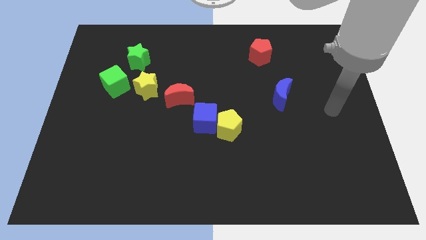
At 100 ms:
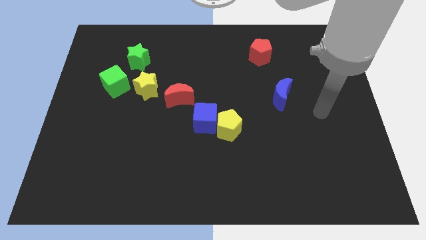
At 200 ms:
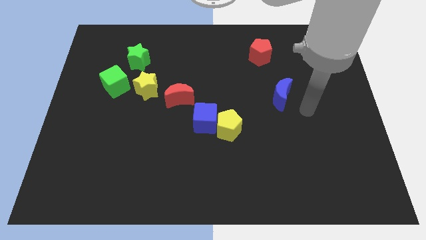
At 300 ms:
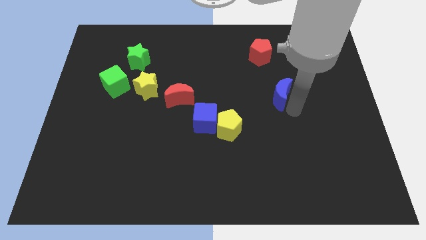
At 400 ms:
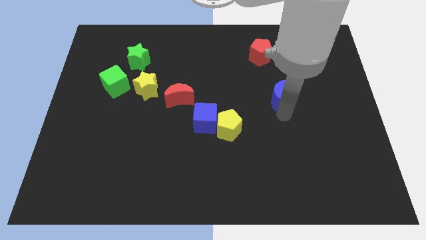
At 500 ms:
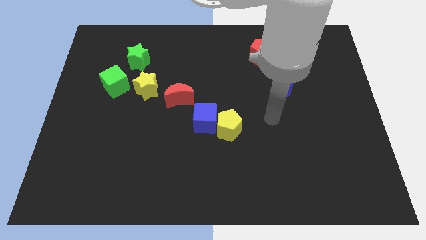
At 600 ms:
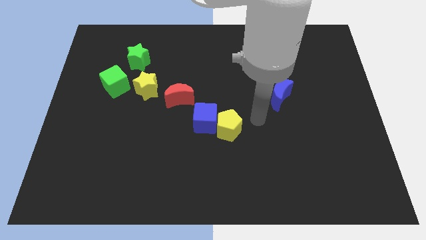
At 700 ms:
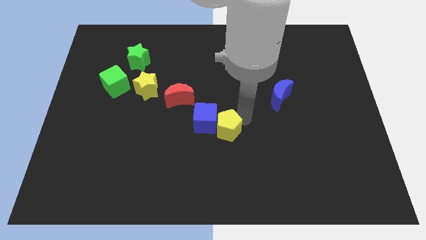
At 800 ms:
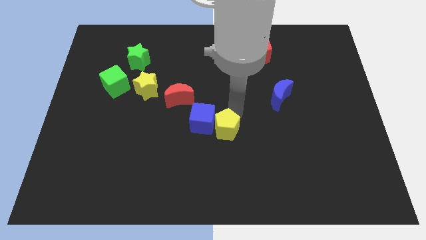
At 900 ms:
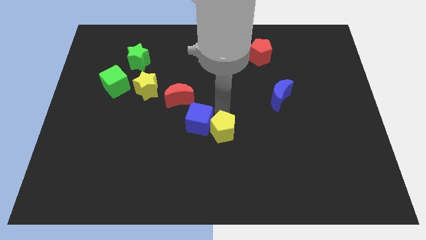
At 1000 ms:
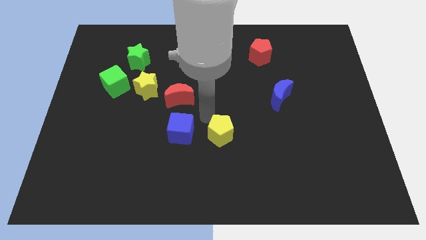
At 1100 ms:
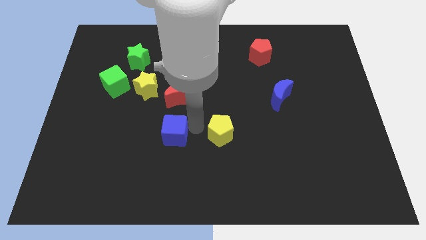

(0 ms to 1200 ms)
pull the yellow pentagon apart from the blue cube

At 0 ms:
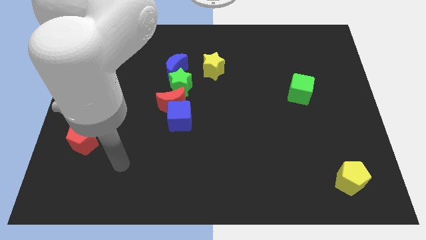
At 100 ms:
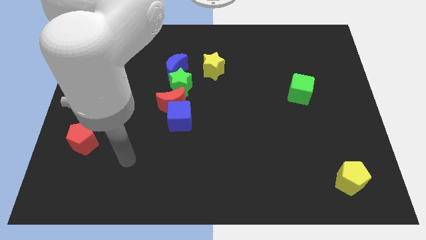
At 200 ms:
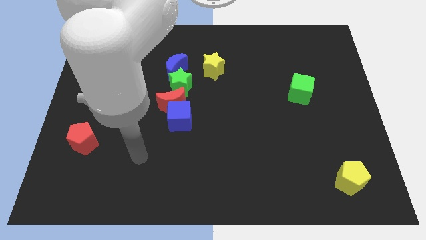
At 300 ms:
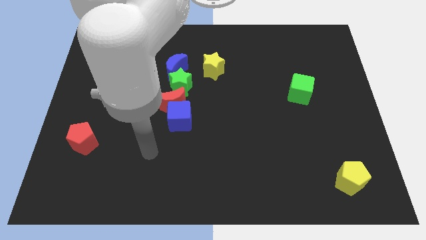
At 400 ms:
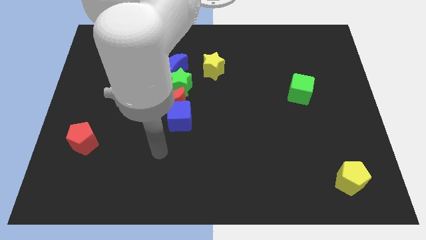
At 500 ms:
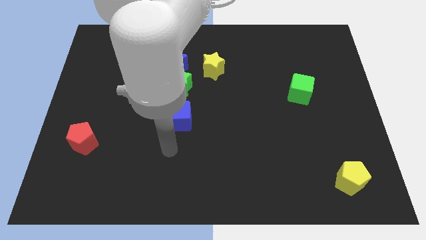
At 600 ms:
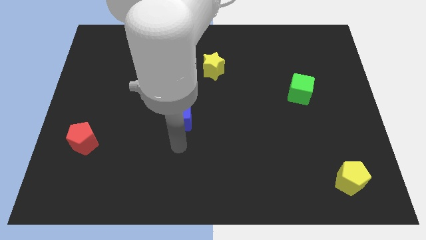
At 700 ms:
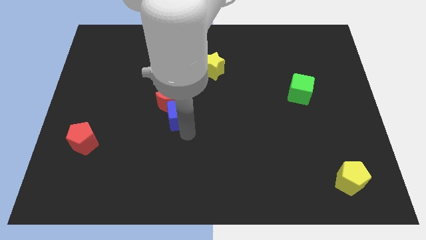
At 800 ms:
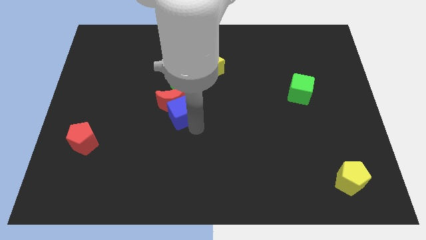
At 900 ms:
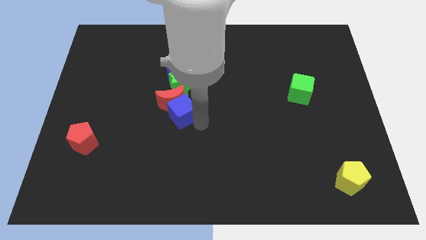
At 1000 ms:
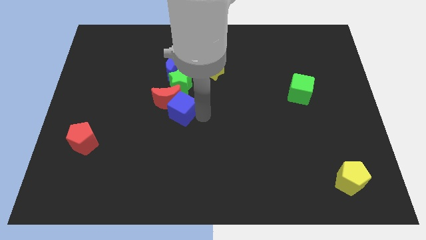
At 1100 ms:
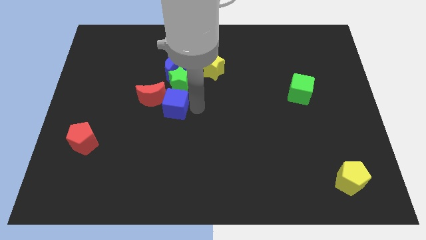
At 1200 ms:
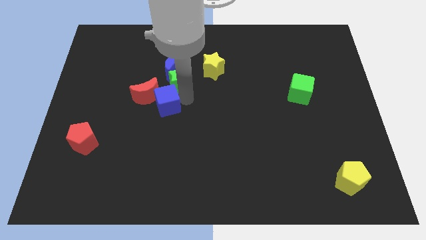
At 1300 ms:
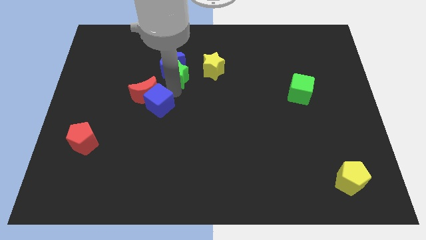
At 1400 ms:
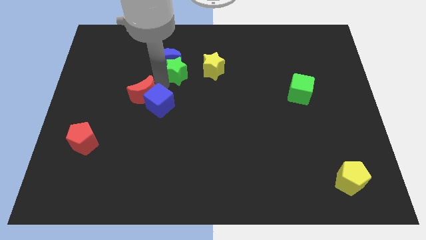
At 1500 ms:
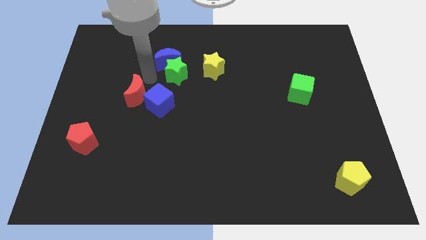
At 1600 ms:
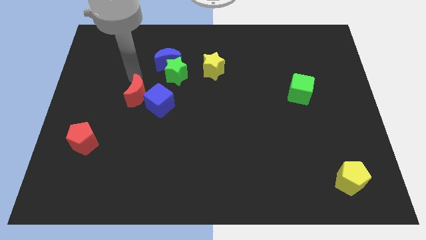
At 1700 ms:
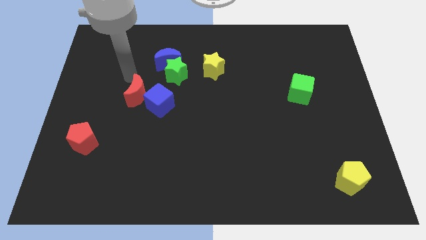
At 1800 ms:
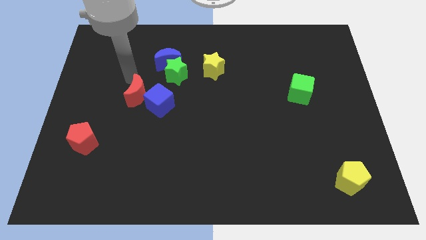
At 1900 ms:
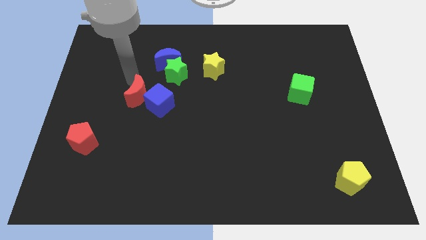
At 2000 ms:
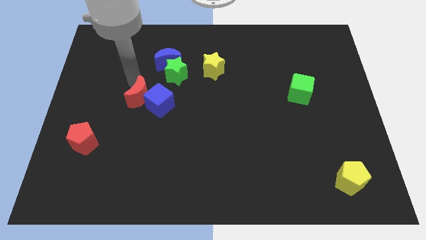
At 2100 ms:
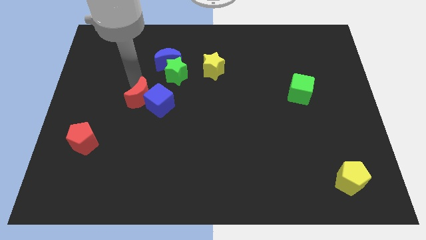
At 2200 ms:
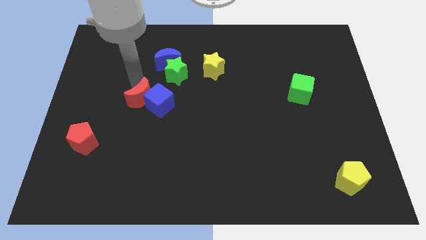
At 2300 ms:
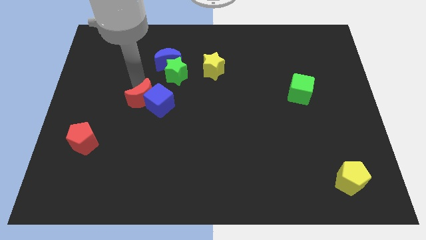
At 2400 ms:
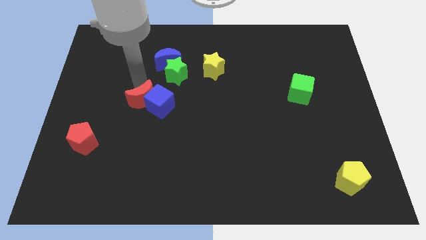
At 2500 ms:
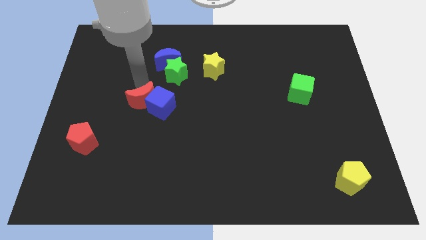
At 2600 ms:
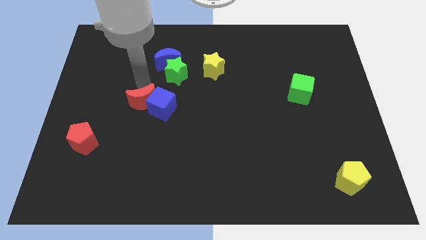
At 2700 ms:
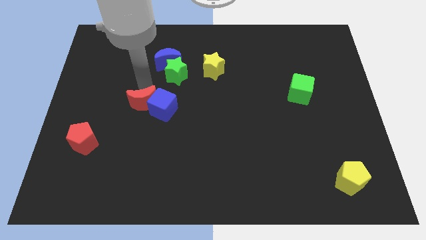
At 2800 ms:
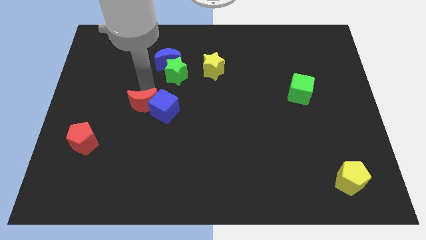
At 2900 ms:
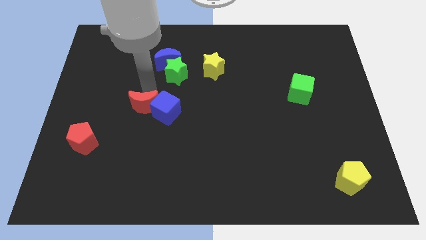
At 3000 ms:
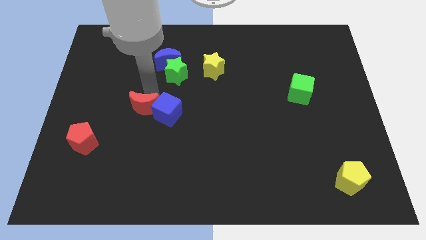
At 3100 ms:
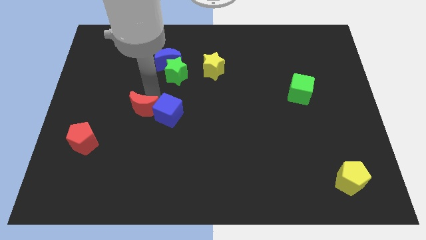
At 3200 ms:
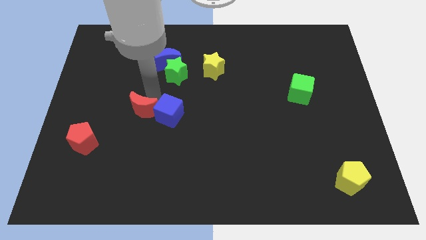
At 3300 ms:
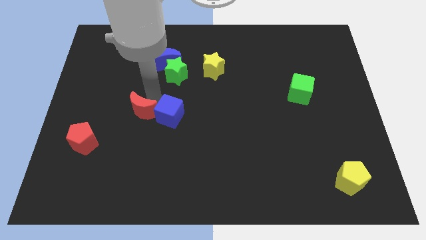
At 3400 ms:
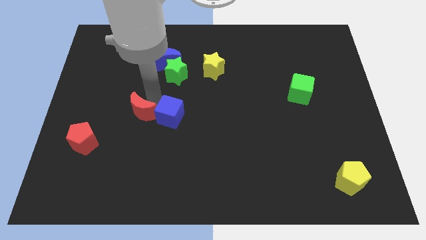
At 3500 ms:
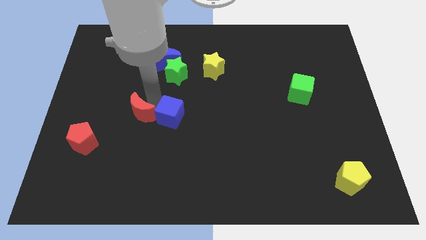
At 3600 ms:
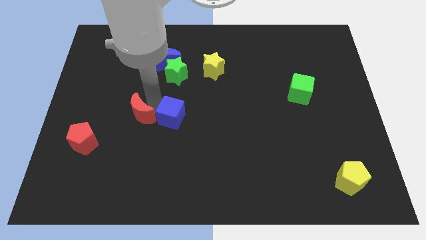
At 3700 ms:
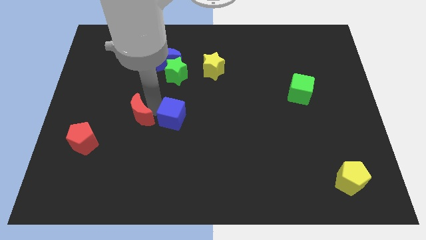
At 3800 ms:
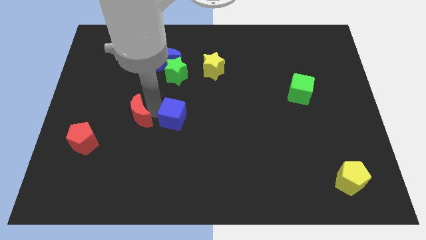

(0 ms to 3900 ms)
separate the red moon from the blue cube and green star

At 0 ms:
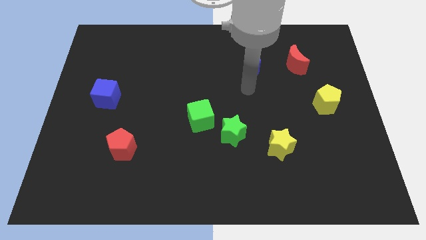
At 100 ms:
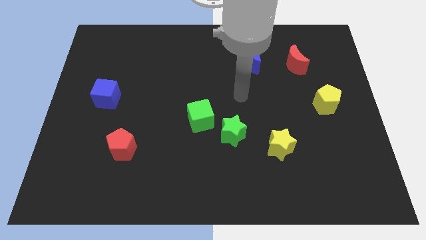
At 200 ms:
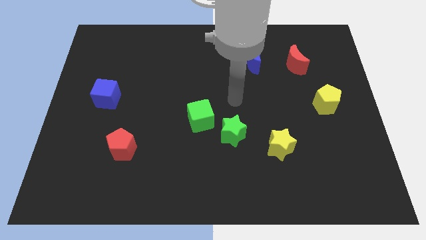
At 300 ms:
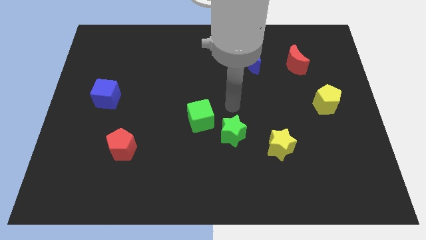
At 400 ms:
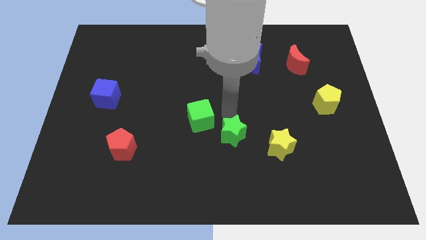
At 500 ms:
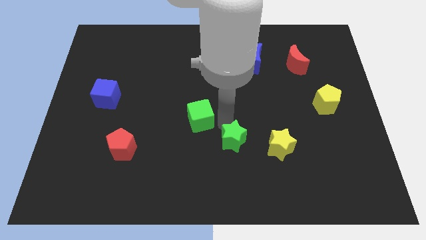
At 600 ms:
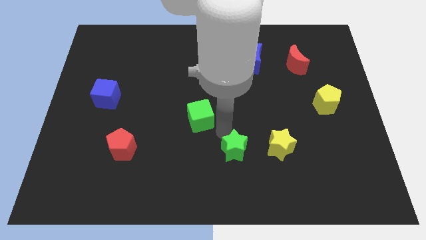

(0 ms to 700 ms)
pull the green cube apart from the green star

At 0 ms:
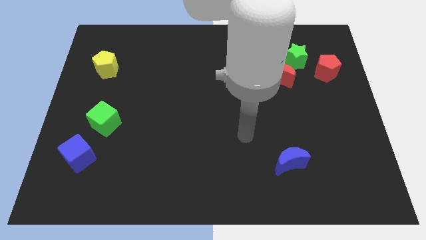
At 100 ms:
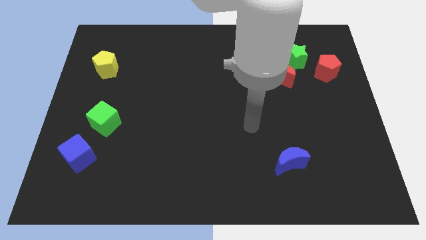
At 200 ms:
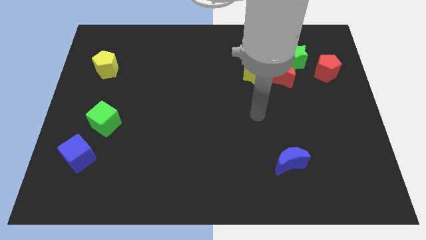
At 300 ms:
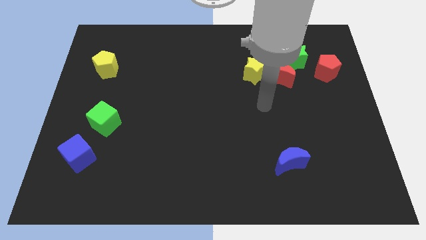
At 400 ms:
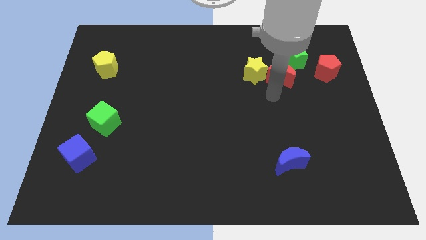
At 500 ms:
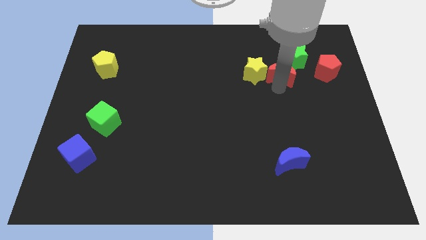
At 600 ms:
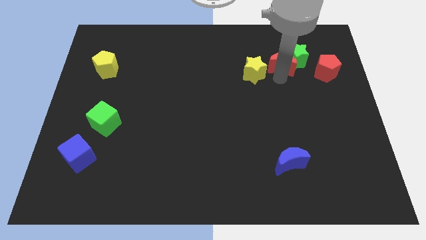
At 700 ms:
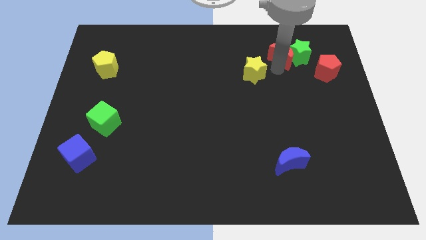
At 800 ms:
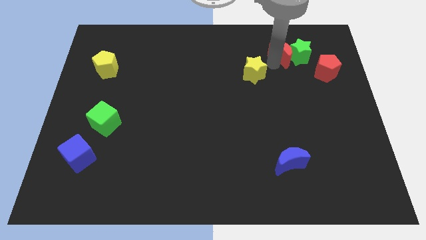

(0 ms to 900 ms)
separate the yellow star from the red moon

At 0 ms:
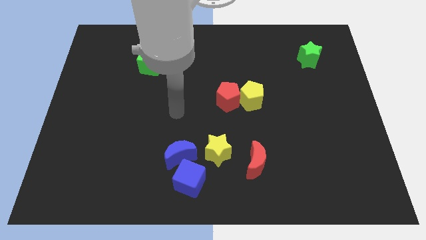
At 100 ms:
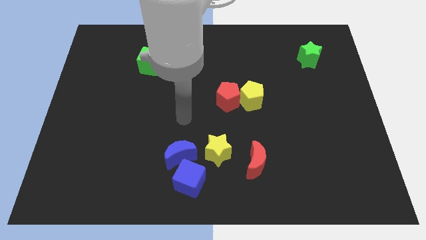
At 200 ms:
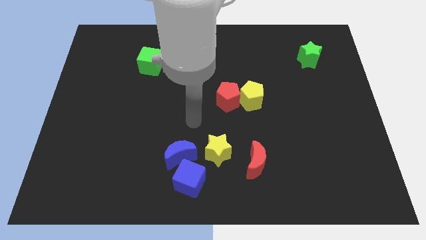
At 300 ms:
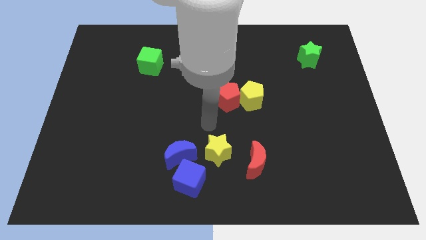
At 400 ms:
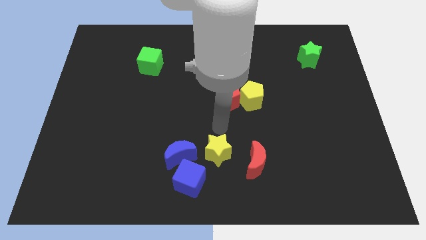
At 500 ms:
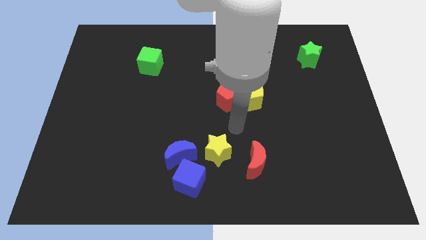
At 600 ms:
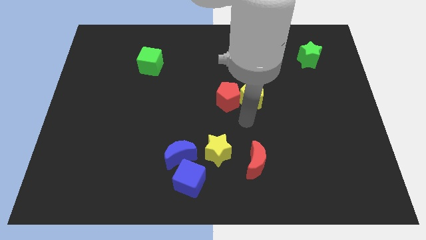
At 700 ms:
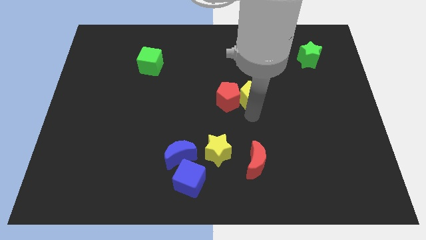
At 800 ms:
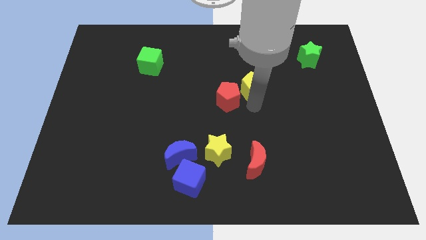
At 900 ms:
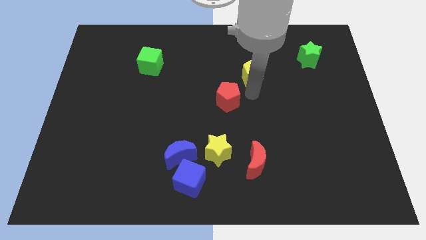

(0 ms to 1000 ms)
separate the red pentagon from the yellow pentagon

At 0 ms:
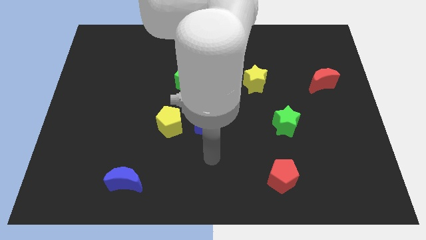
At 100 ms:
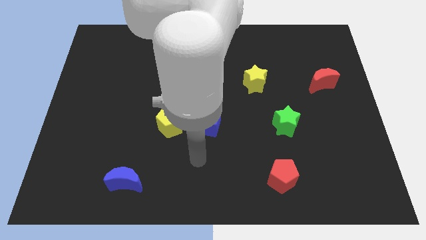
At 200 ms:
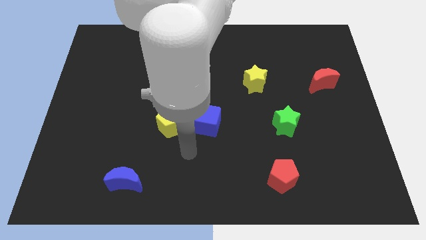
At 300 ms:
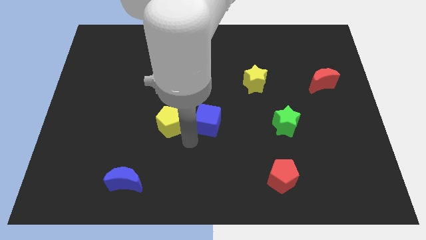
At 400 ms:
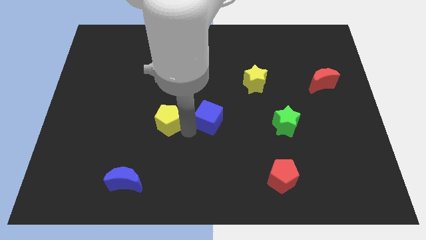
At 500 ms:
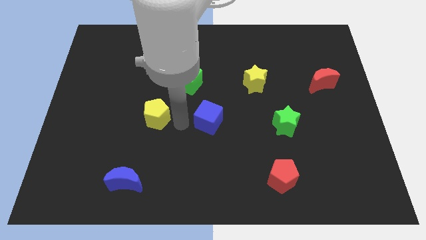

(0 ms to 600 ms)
move the blue cube away from the yellow pentagon

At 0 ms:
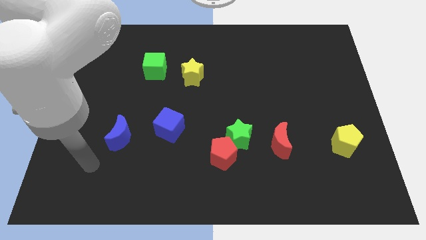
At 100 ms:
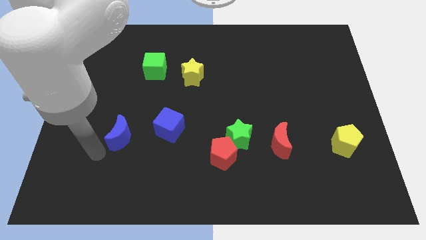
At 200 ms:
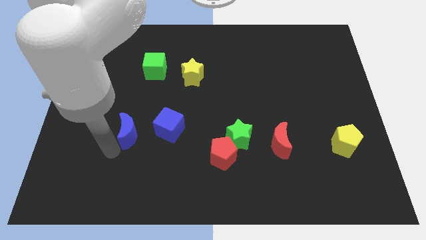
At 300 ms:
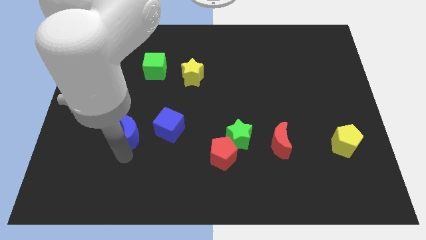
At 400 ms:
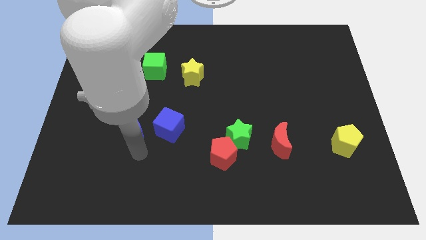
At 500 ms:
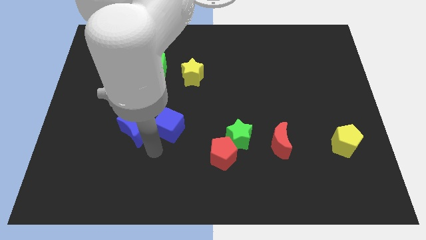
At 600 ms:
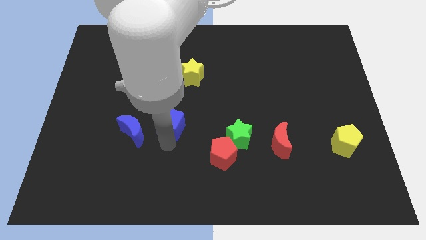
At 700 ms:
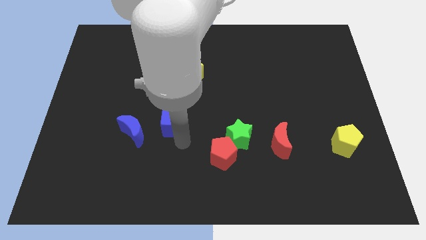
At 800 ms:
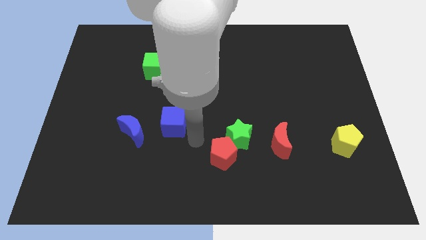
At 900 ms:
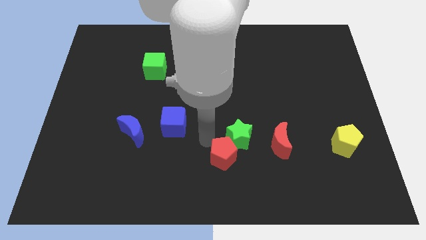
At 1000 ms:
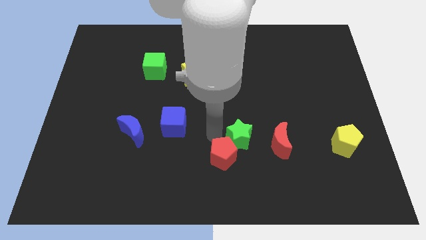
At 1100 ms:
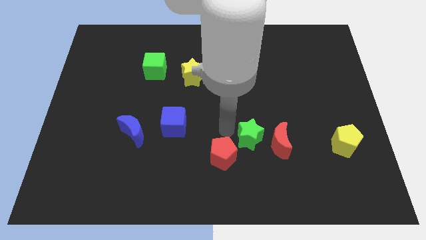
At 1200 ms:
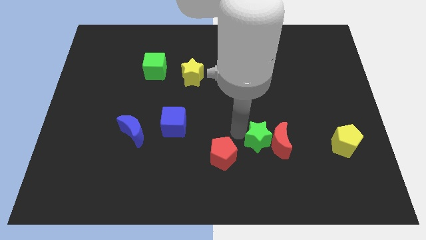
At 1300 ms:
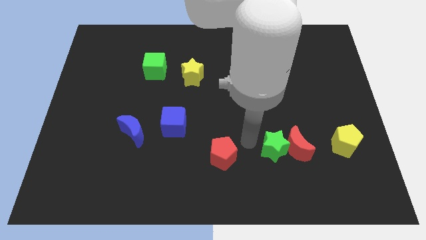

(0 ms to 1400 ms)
pull the red pentagon apart from the green star
